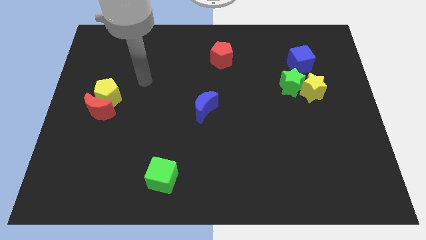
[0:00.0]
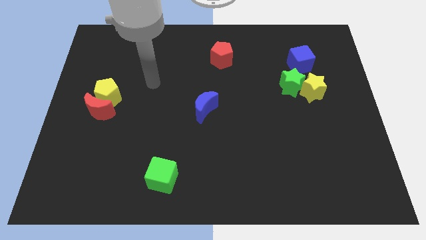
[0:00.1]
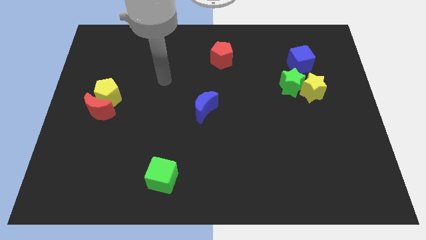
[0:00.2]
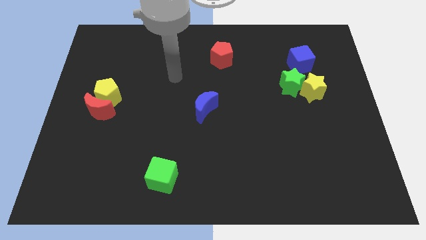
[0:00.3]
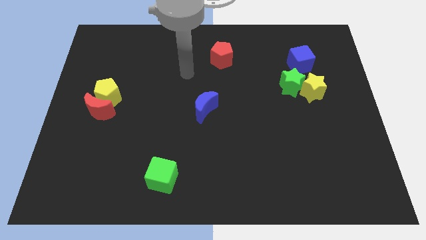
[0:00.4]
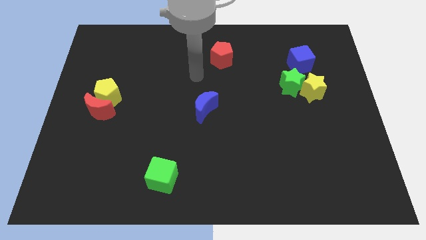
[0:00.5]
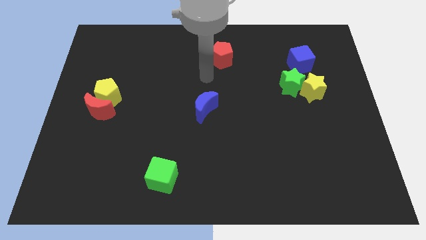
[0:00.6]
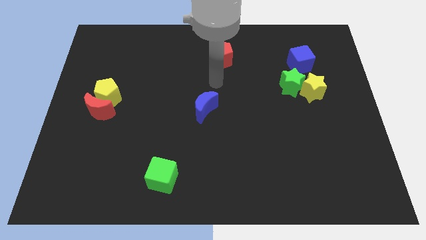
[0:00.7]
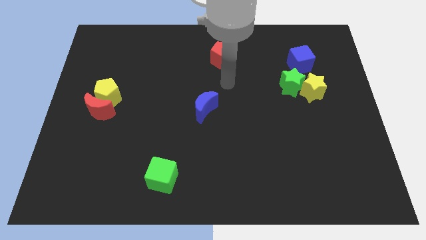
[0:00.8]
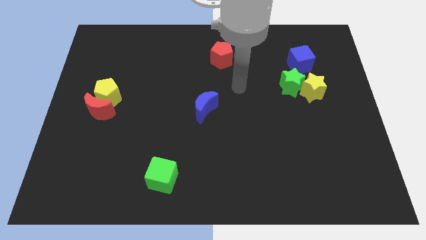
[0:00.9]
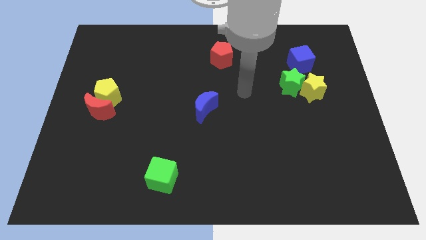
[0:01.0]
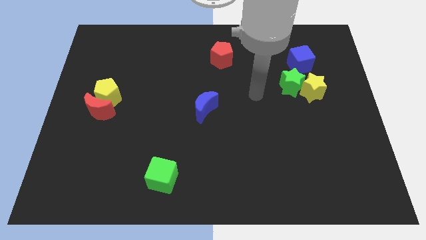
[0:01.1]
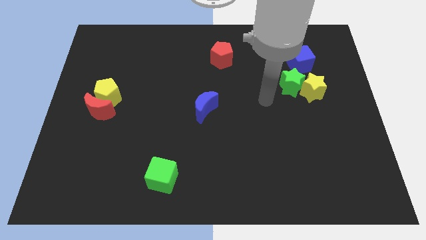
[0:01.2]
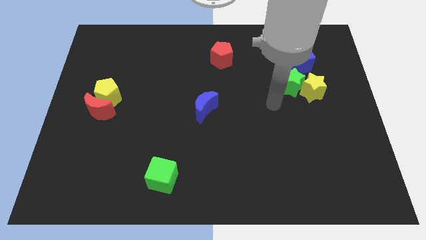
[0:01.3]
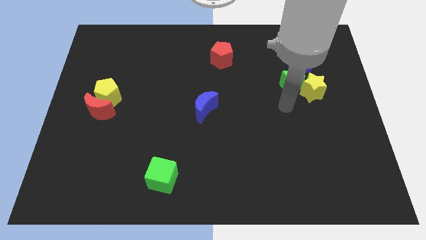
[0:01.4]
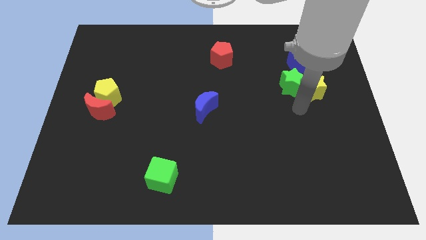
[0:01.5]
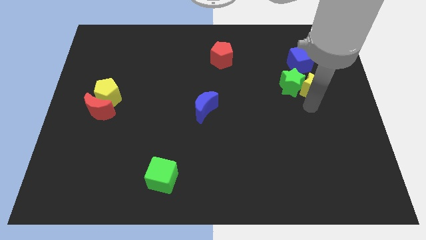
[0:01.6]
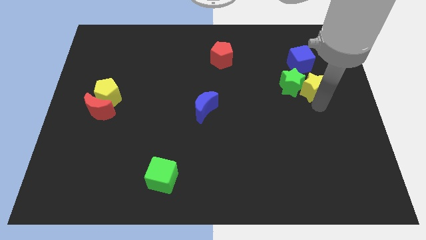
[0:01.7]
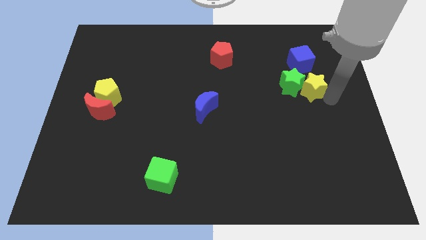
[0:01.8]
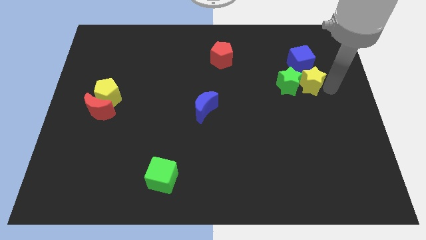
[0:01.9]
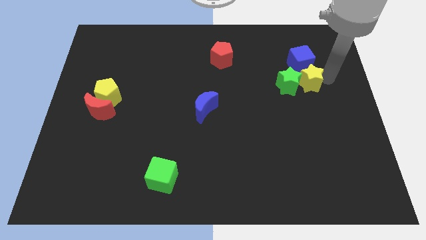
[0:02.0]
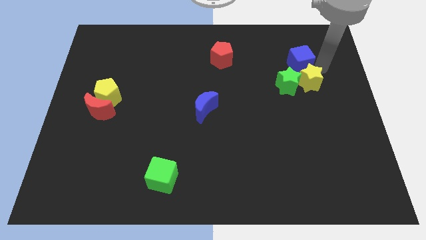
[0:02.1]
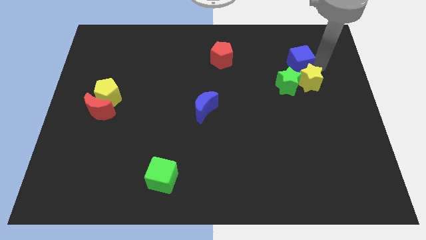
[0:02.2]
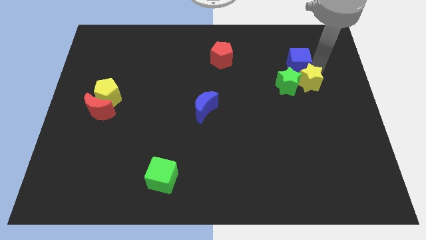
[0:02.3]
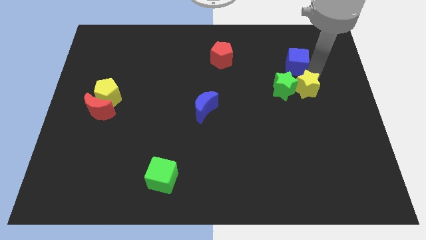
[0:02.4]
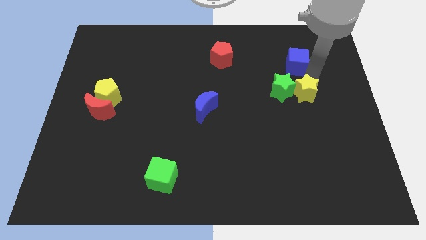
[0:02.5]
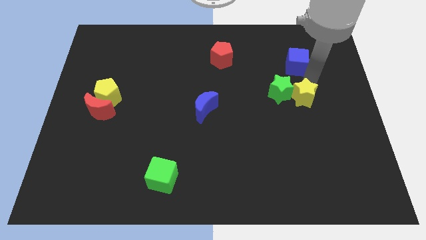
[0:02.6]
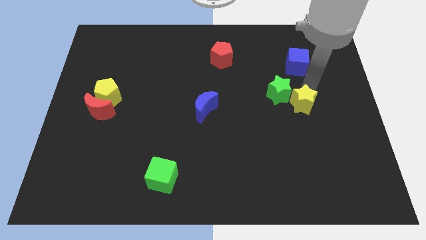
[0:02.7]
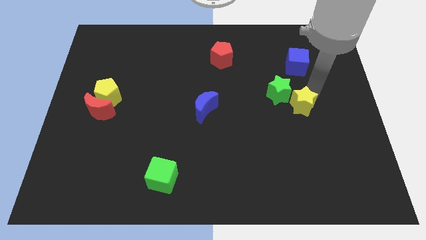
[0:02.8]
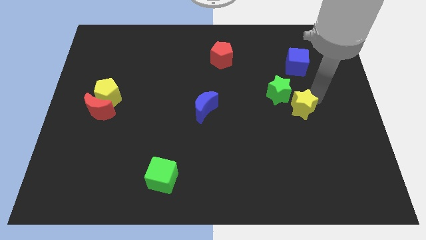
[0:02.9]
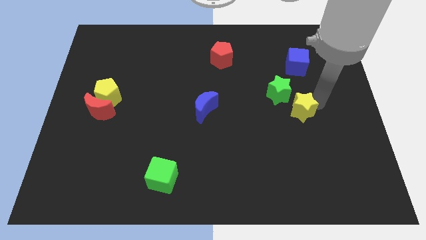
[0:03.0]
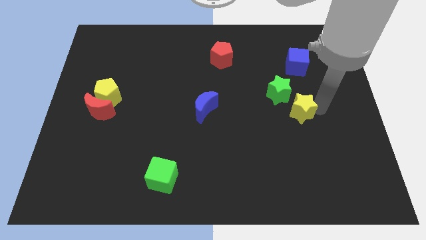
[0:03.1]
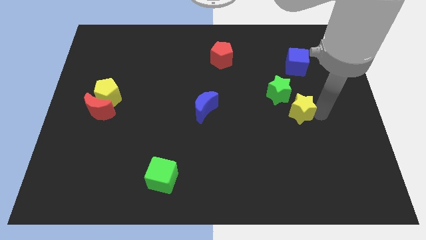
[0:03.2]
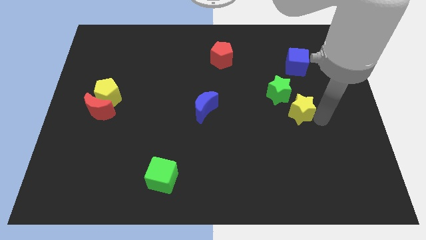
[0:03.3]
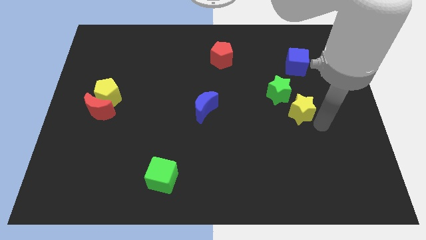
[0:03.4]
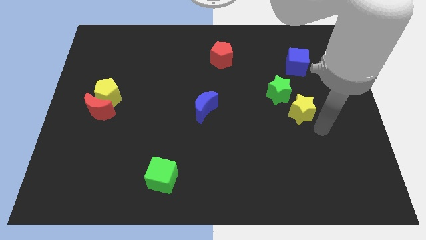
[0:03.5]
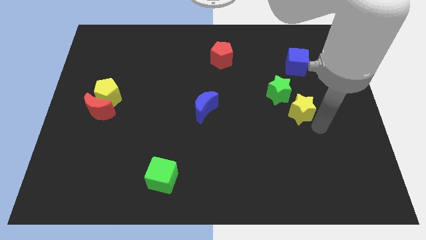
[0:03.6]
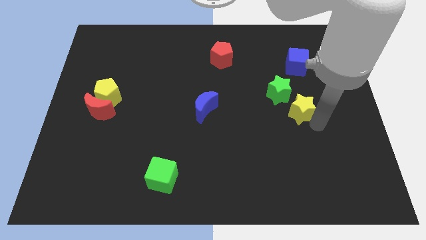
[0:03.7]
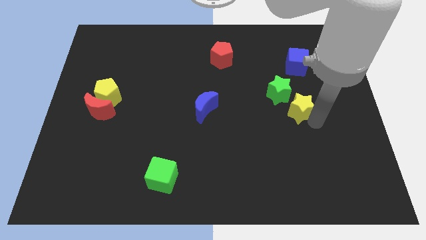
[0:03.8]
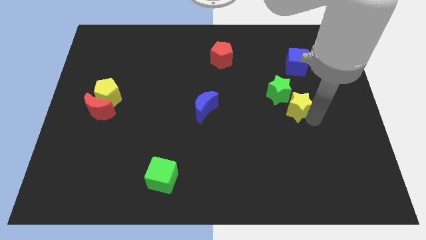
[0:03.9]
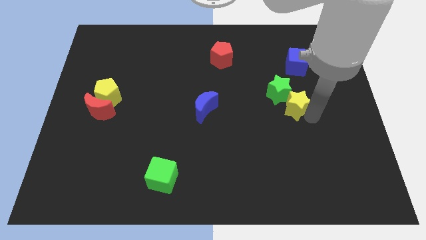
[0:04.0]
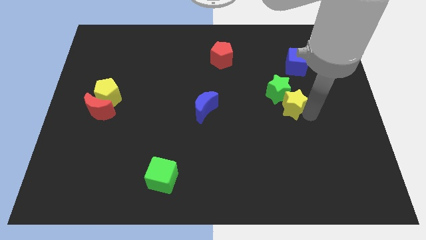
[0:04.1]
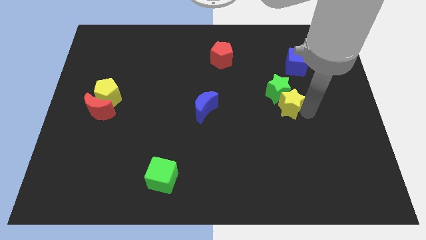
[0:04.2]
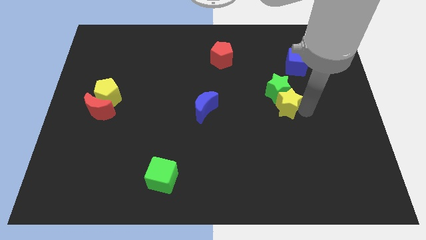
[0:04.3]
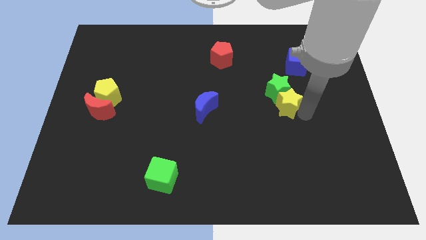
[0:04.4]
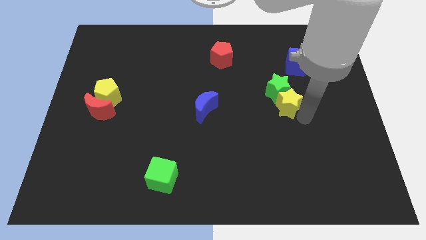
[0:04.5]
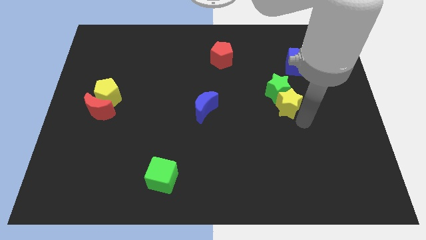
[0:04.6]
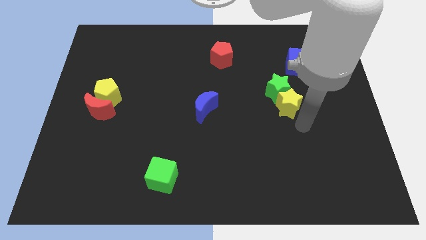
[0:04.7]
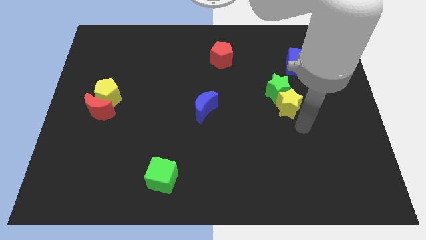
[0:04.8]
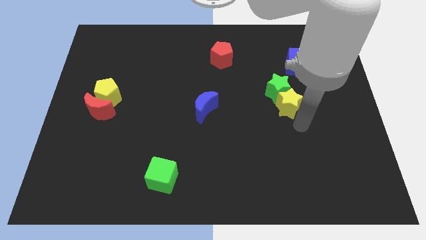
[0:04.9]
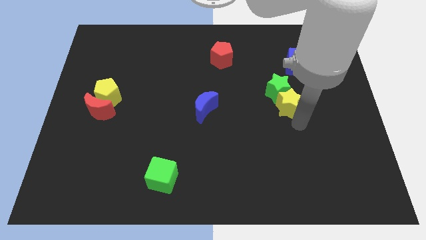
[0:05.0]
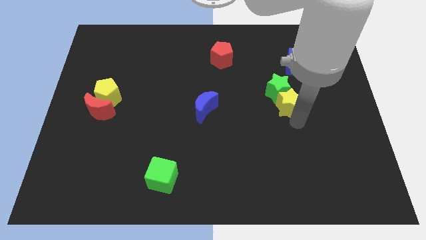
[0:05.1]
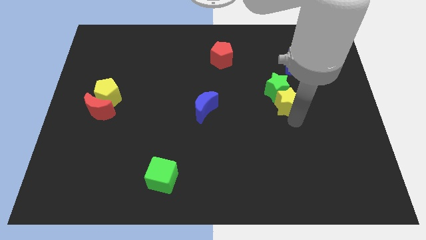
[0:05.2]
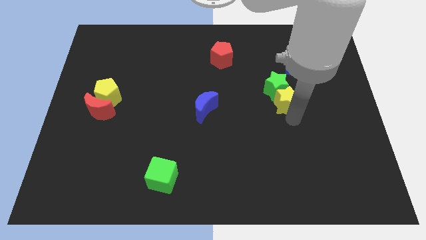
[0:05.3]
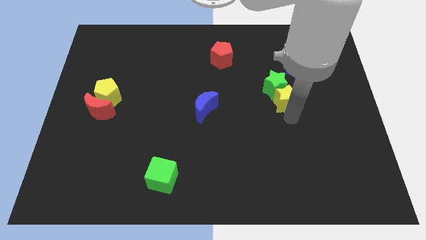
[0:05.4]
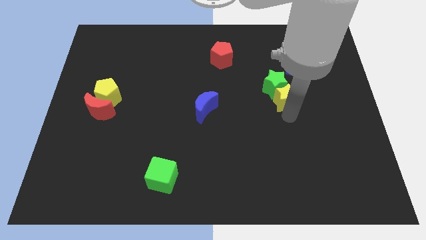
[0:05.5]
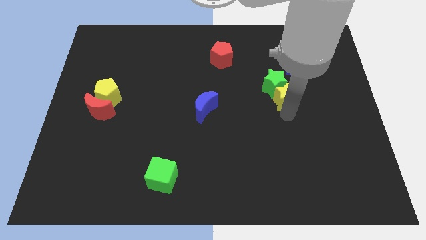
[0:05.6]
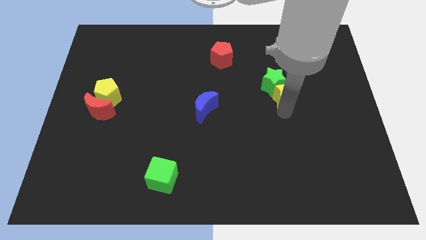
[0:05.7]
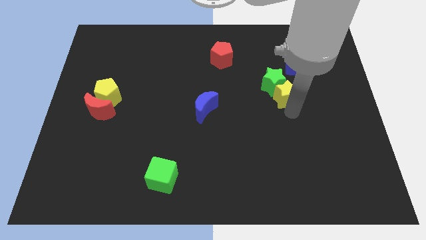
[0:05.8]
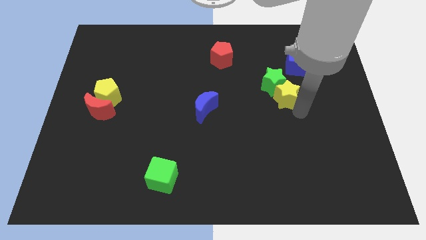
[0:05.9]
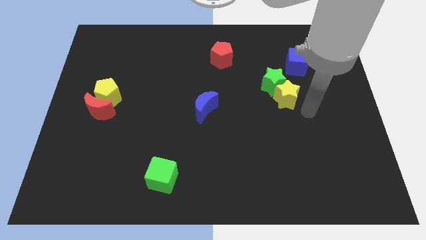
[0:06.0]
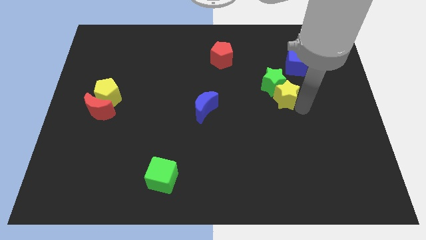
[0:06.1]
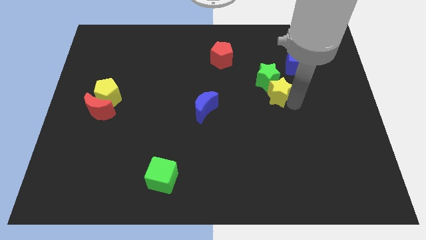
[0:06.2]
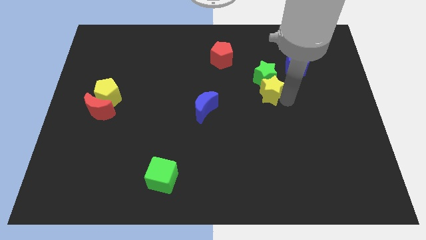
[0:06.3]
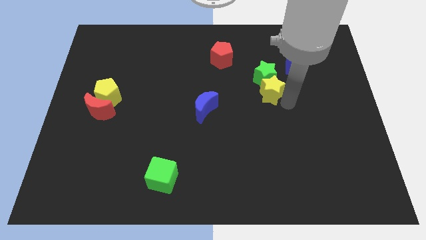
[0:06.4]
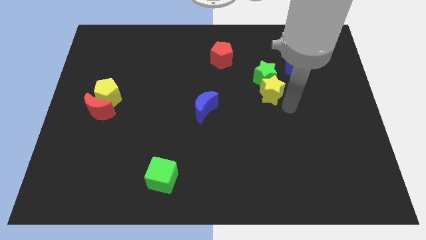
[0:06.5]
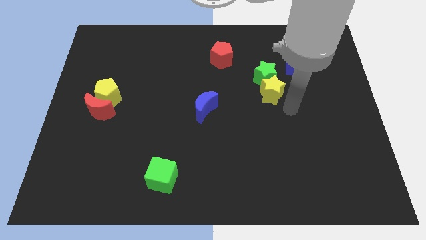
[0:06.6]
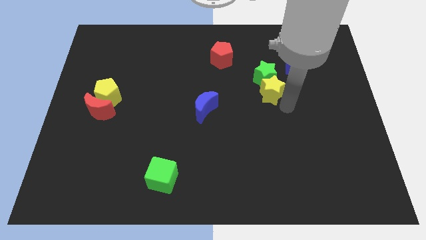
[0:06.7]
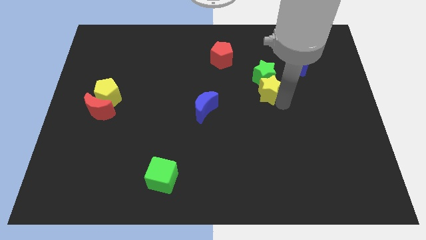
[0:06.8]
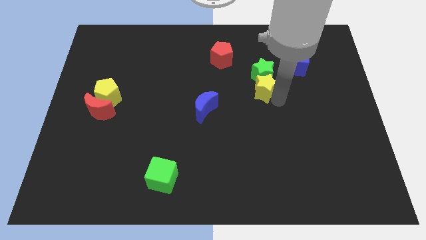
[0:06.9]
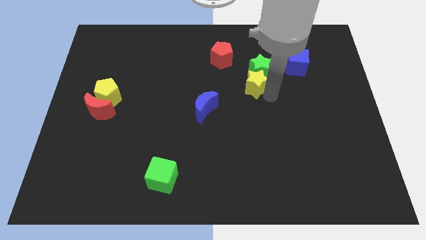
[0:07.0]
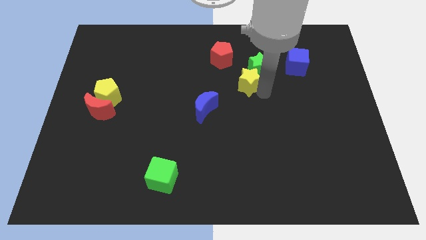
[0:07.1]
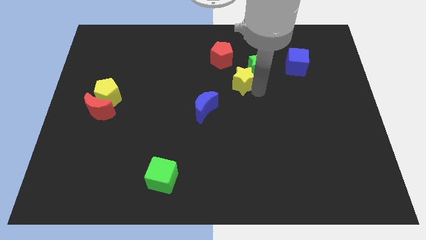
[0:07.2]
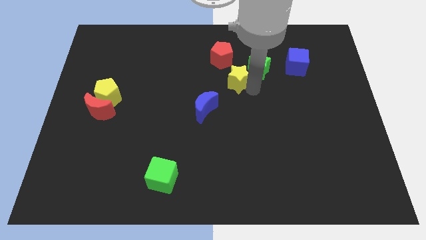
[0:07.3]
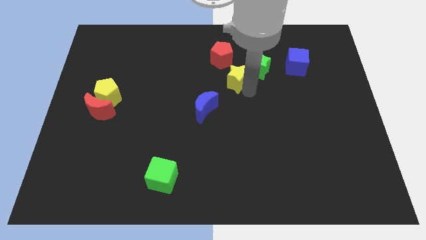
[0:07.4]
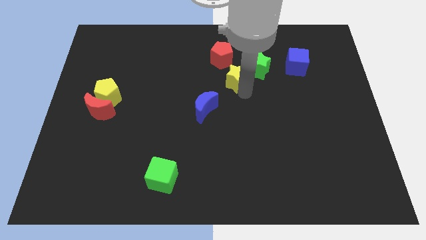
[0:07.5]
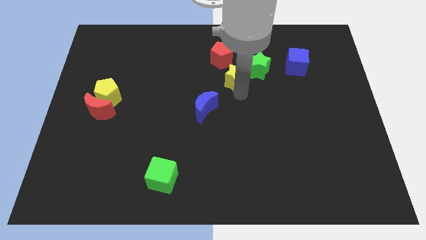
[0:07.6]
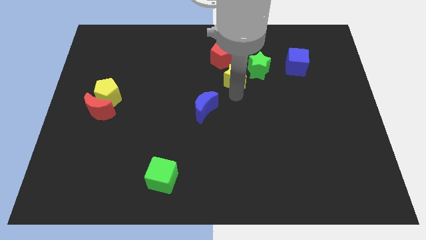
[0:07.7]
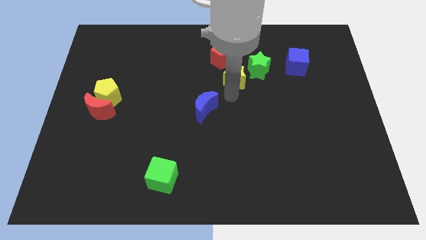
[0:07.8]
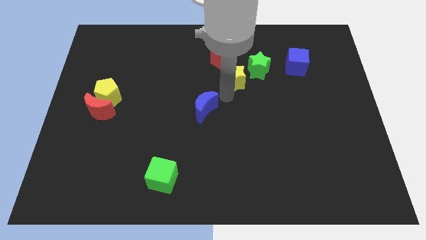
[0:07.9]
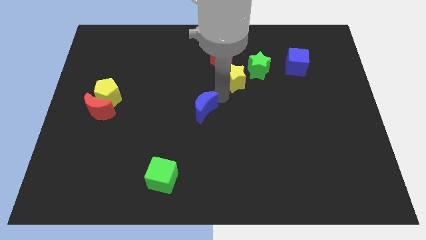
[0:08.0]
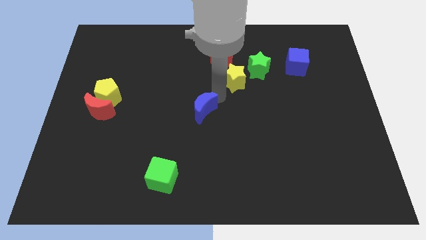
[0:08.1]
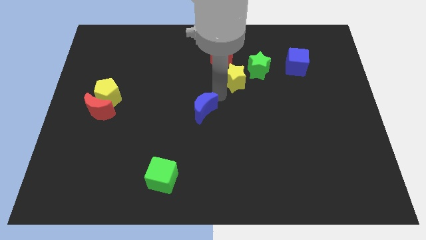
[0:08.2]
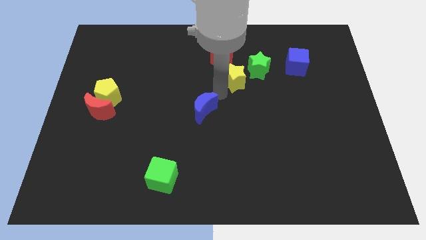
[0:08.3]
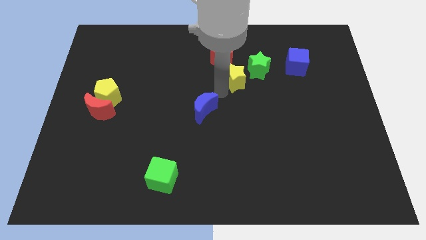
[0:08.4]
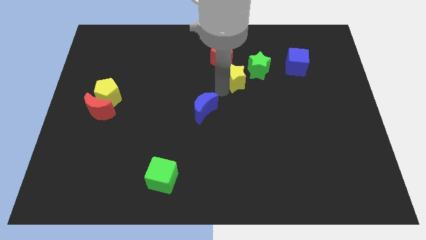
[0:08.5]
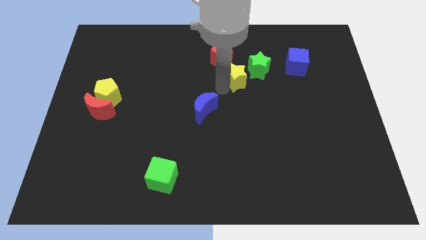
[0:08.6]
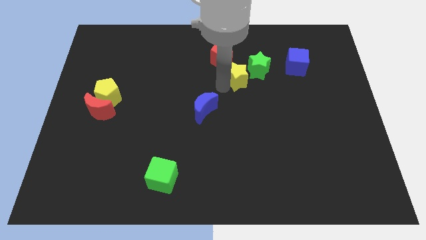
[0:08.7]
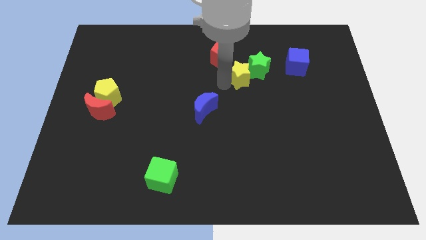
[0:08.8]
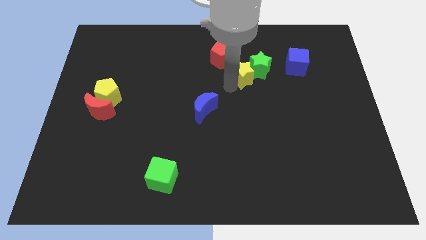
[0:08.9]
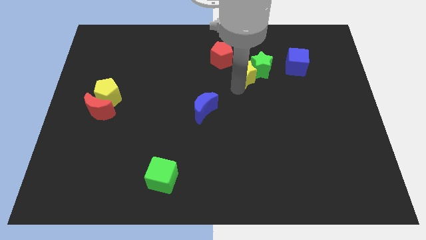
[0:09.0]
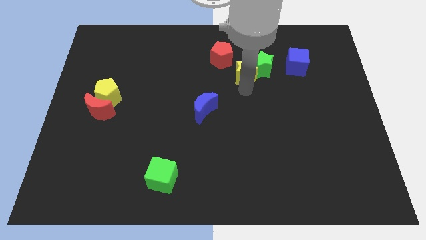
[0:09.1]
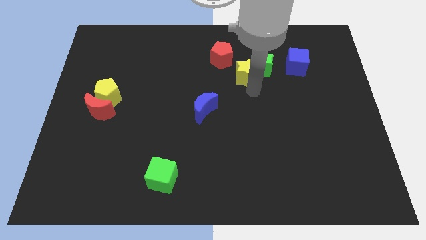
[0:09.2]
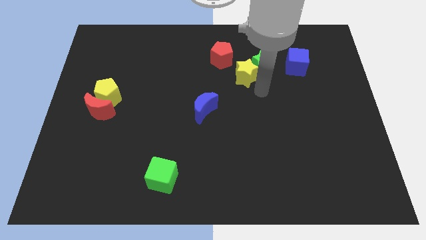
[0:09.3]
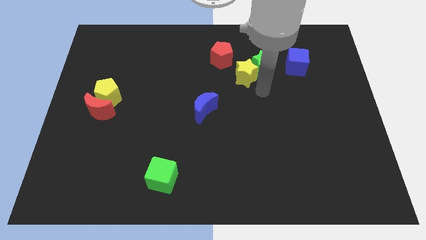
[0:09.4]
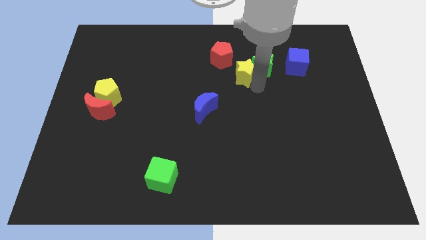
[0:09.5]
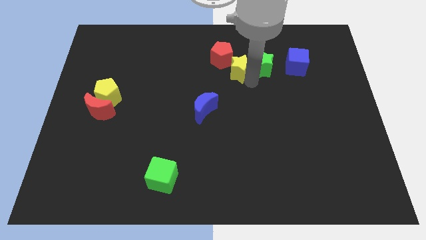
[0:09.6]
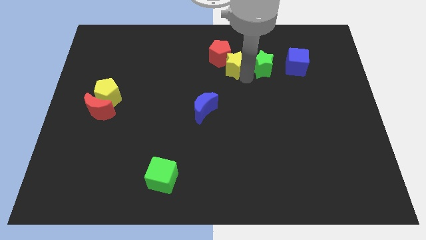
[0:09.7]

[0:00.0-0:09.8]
move the yellow star close to the red pentagon
